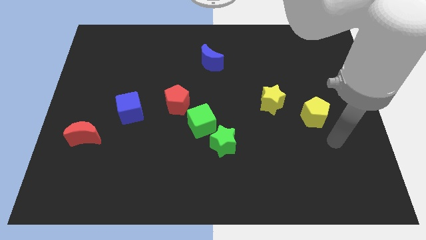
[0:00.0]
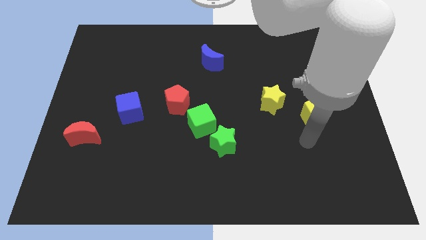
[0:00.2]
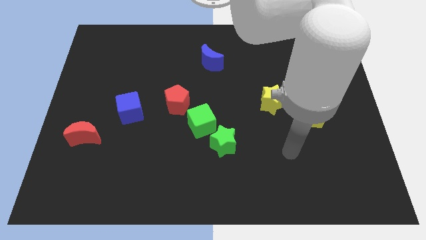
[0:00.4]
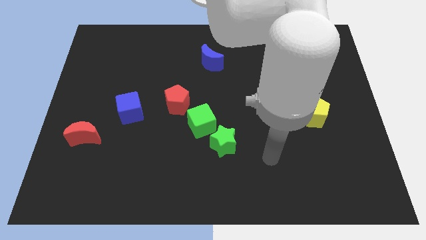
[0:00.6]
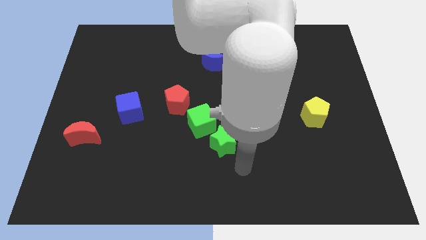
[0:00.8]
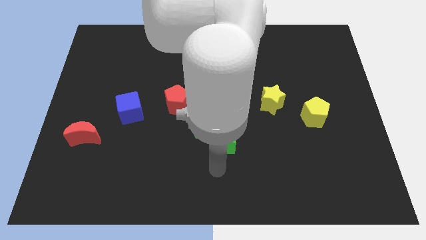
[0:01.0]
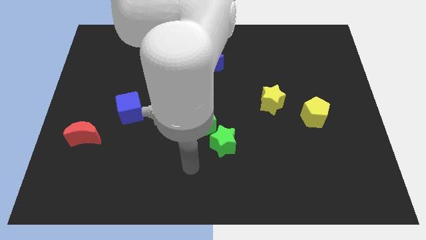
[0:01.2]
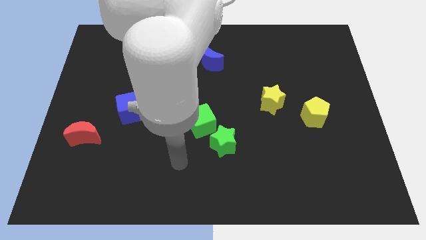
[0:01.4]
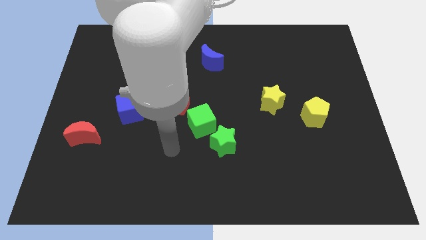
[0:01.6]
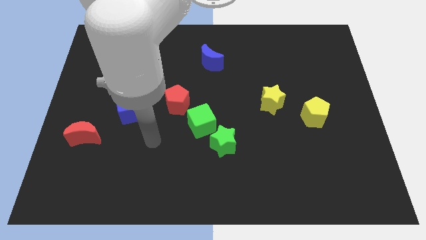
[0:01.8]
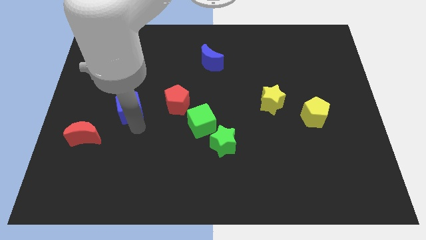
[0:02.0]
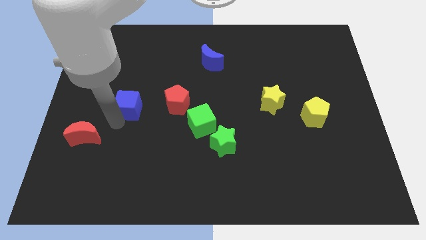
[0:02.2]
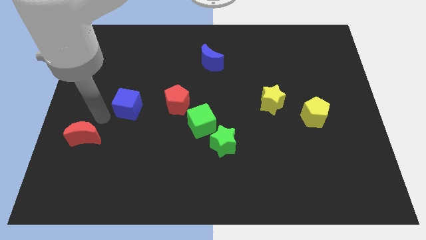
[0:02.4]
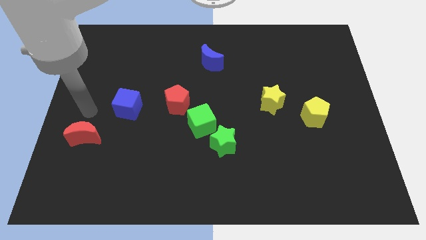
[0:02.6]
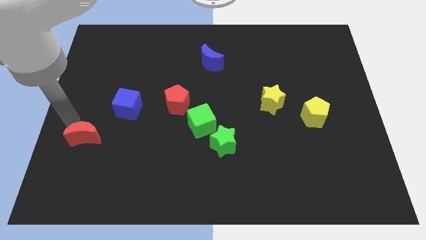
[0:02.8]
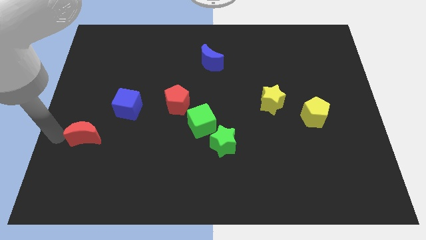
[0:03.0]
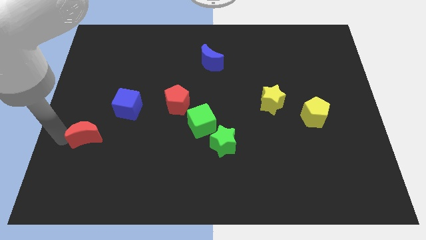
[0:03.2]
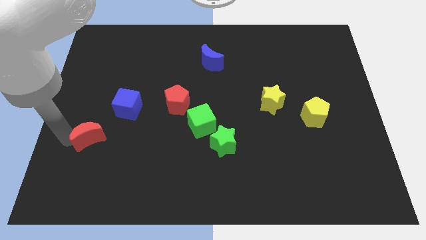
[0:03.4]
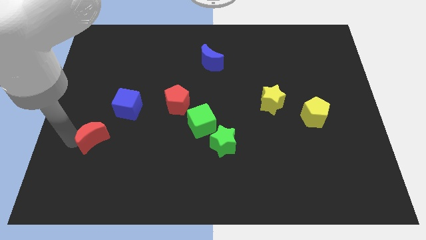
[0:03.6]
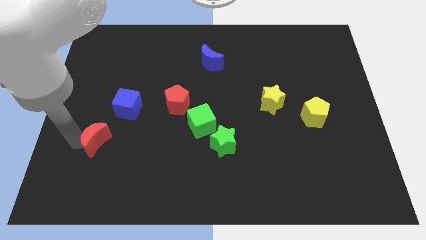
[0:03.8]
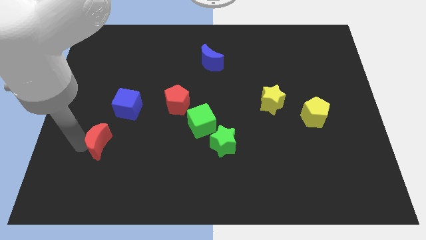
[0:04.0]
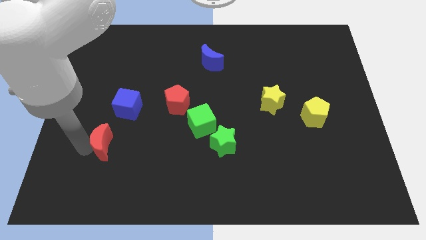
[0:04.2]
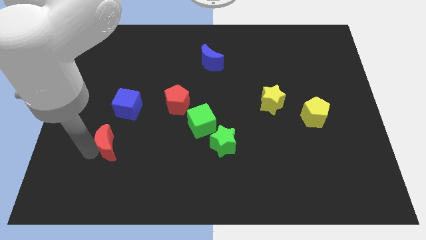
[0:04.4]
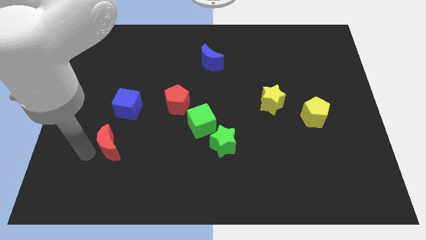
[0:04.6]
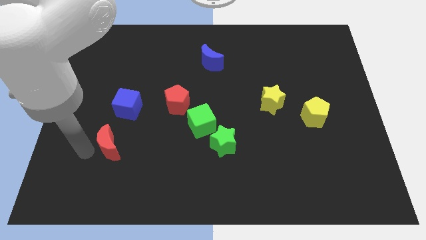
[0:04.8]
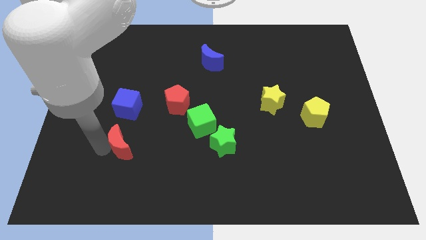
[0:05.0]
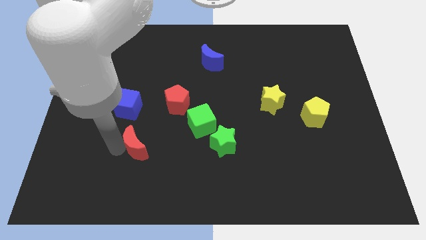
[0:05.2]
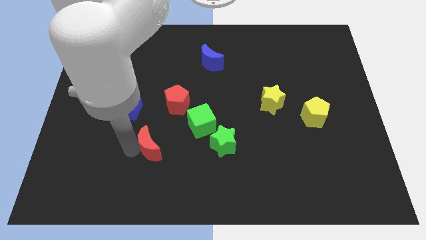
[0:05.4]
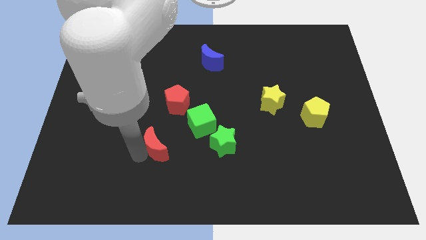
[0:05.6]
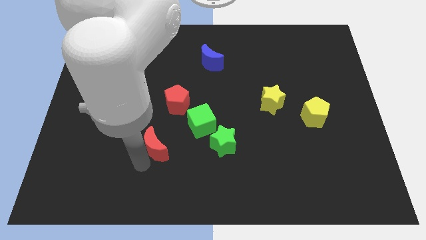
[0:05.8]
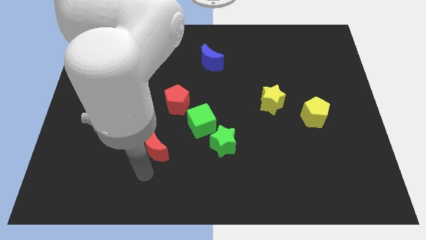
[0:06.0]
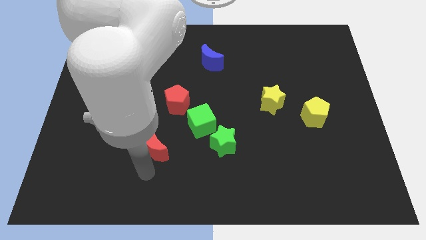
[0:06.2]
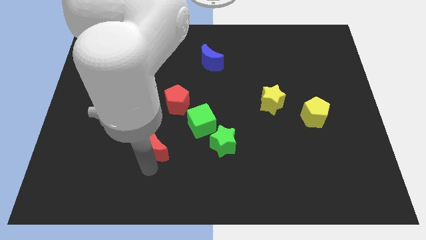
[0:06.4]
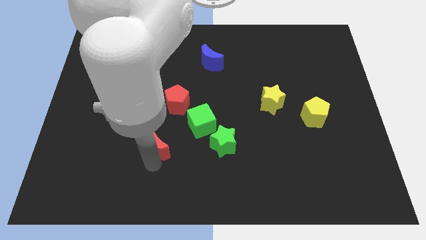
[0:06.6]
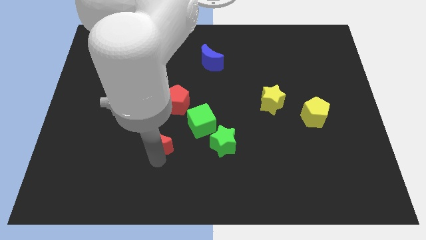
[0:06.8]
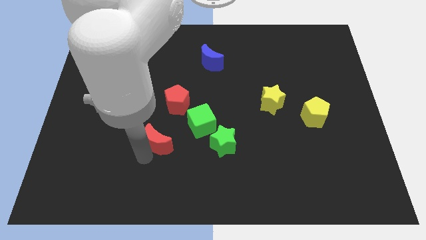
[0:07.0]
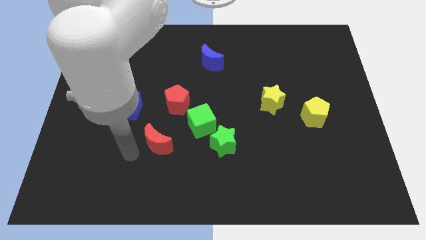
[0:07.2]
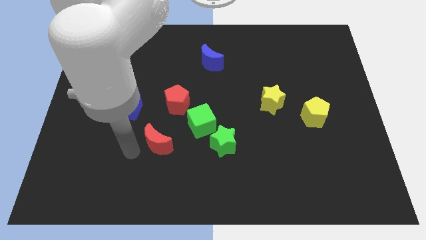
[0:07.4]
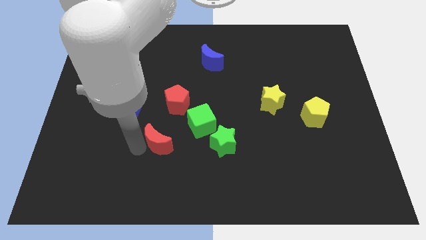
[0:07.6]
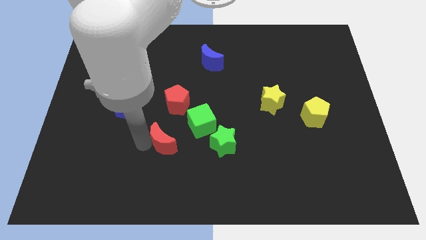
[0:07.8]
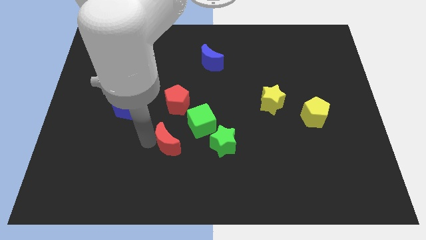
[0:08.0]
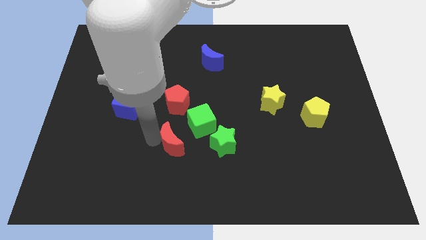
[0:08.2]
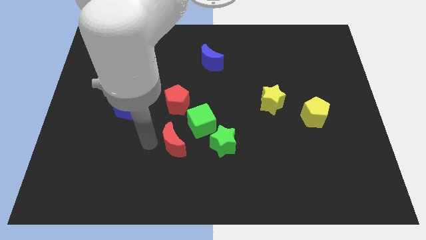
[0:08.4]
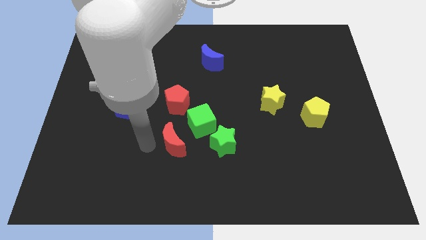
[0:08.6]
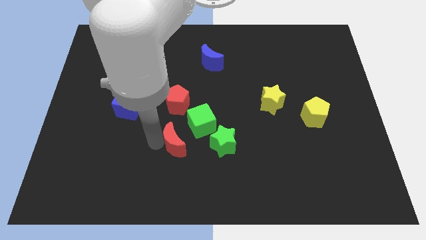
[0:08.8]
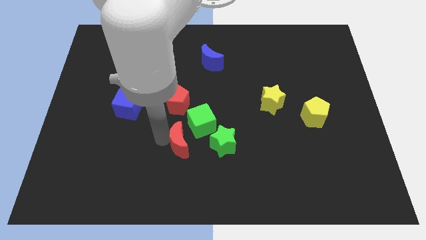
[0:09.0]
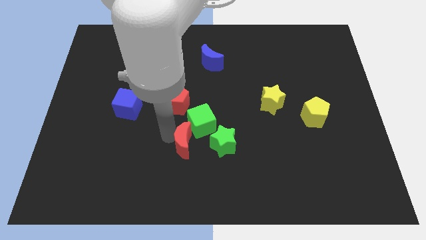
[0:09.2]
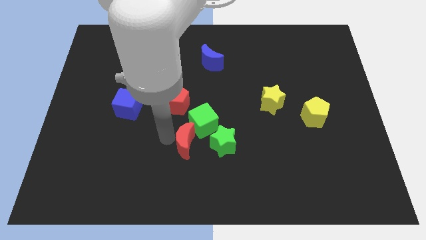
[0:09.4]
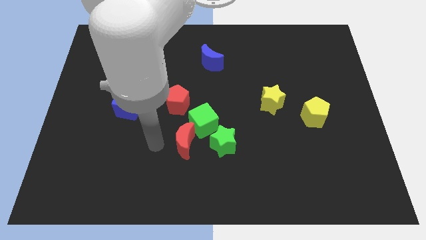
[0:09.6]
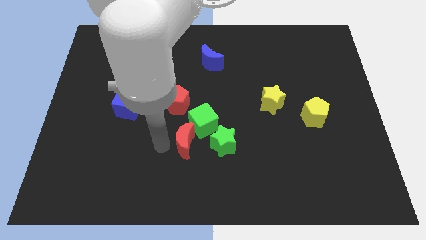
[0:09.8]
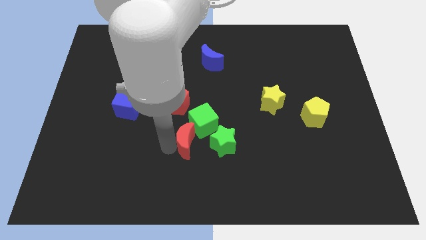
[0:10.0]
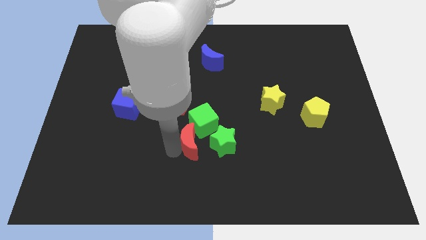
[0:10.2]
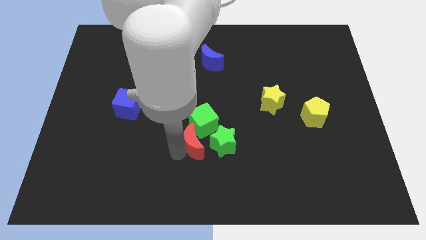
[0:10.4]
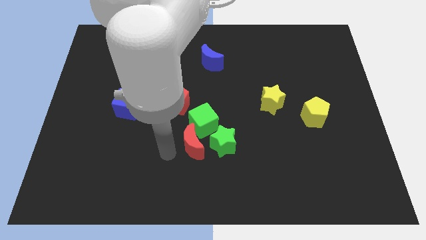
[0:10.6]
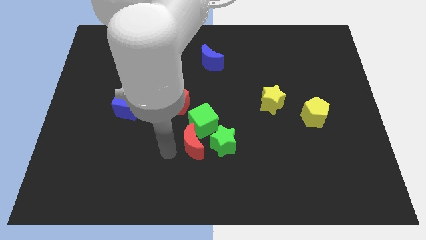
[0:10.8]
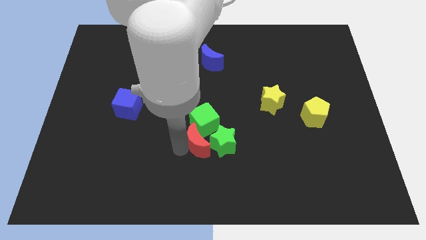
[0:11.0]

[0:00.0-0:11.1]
slide the red moon to the green star

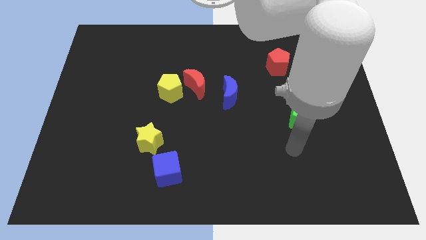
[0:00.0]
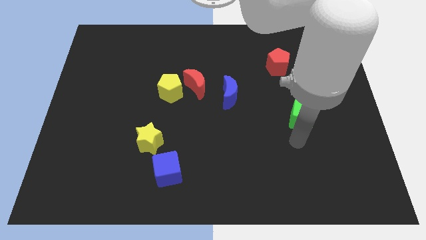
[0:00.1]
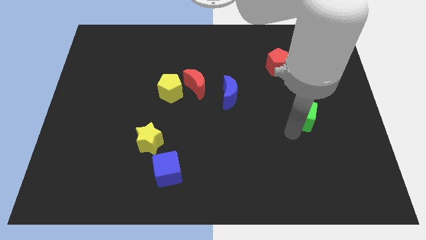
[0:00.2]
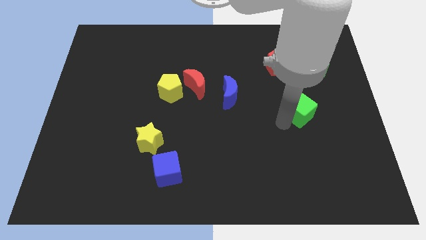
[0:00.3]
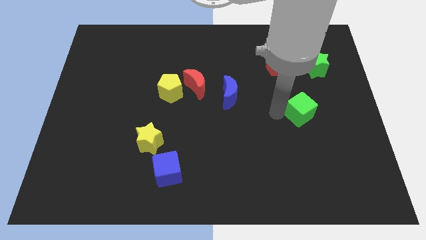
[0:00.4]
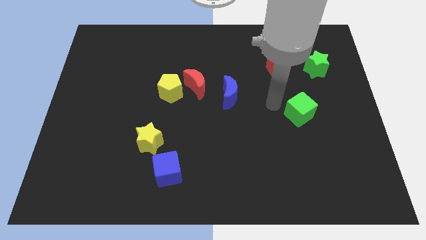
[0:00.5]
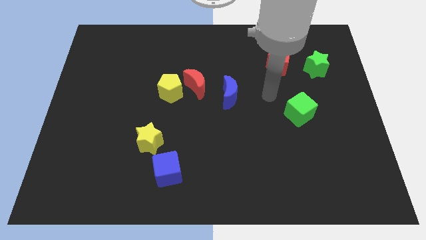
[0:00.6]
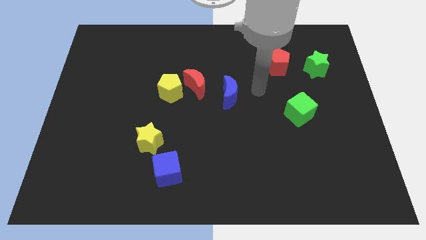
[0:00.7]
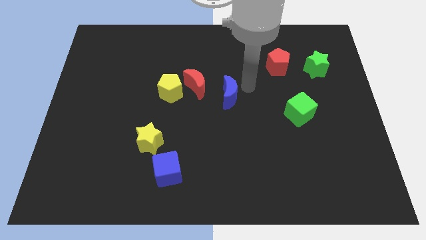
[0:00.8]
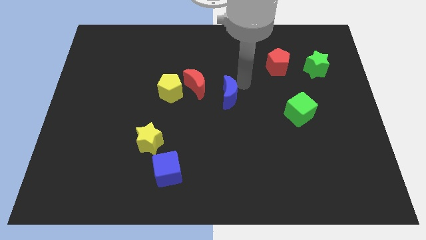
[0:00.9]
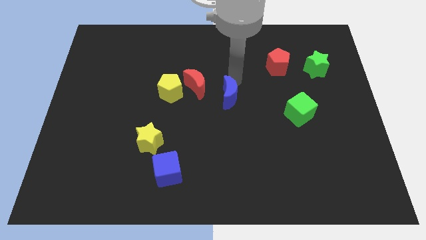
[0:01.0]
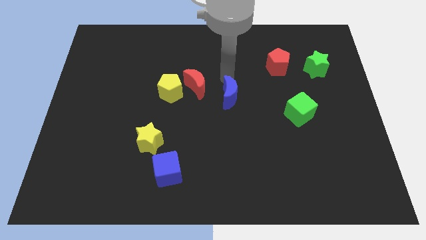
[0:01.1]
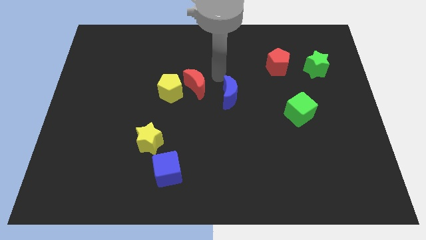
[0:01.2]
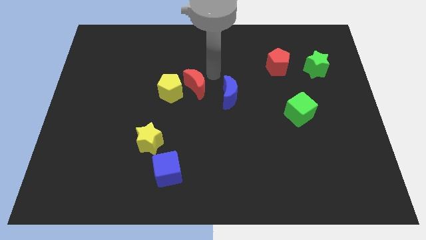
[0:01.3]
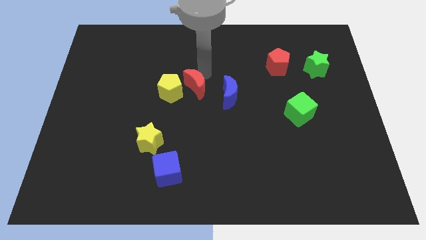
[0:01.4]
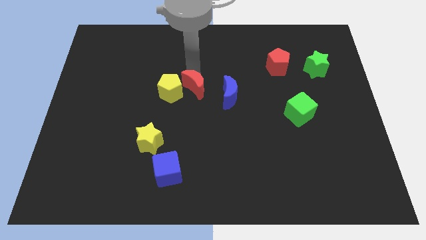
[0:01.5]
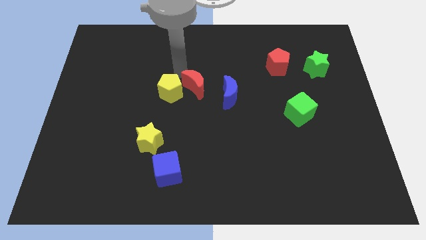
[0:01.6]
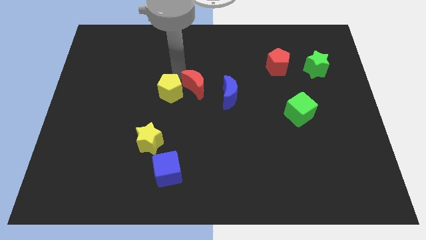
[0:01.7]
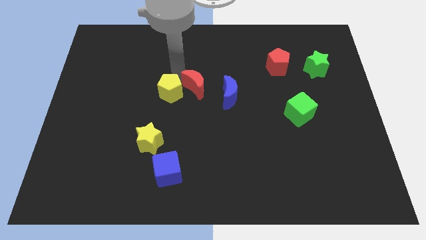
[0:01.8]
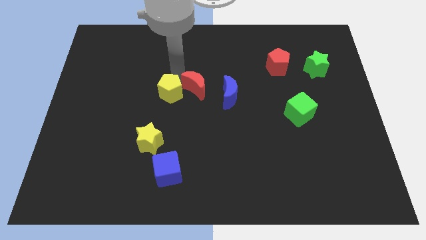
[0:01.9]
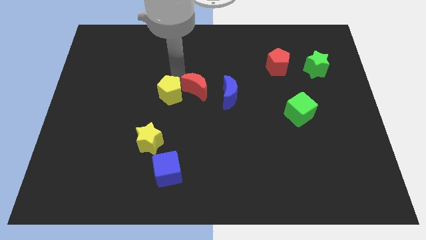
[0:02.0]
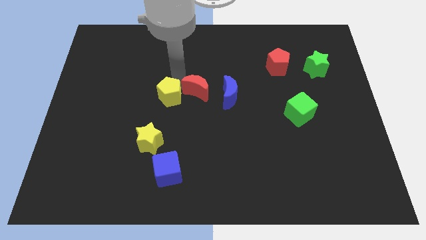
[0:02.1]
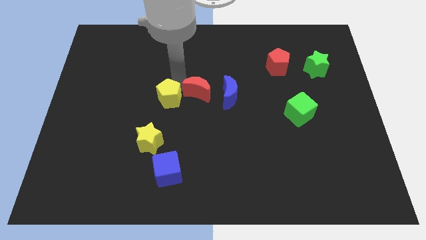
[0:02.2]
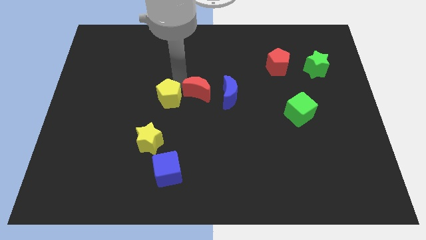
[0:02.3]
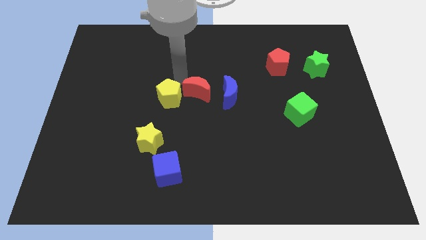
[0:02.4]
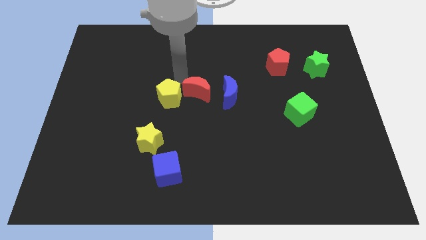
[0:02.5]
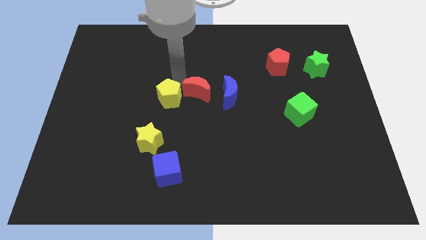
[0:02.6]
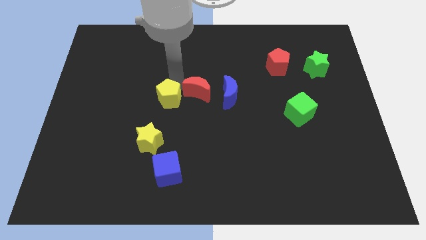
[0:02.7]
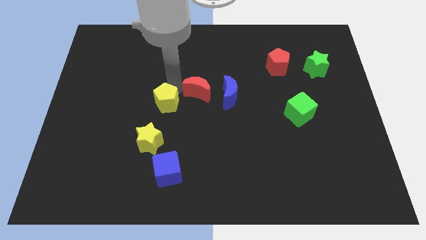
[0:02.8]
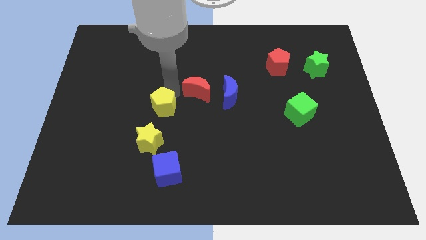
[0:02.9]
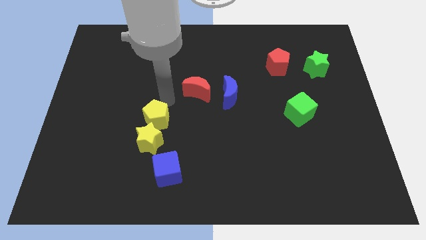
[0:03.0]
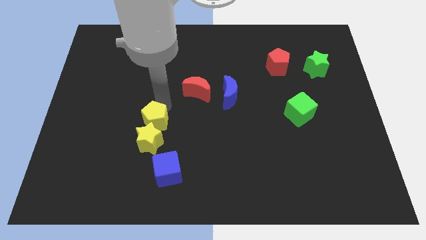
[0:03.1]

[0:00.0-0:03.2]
slide the yellow pentagon next to the yellow star
